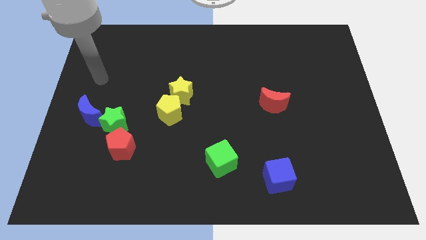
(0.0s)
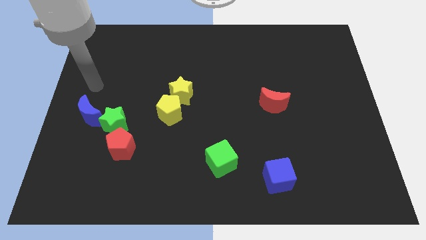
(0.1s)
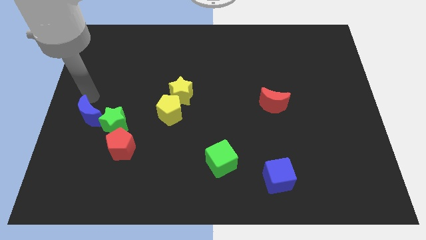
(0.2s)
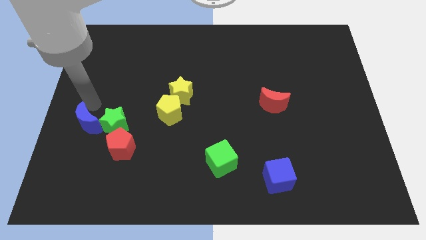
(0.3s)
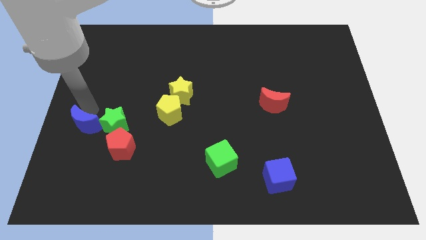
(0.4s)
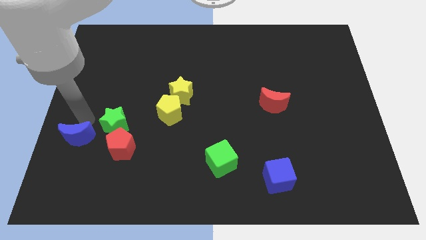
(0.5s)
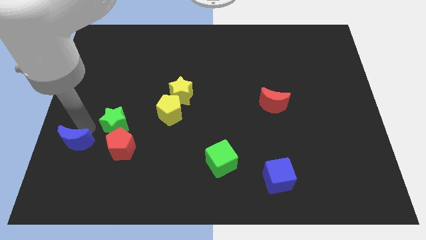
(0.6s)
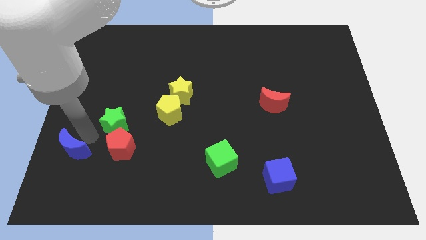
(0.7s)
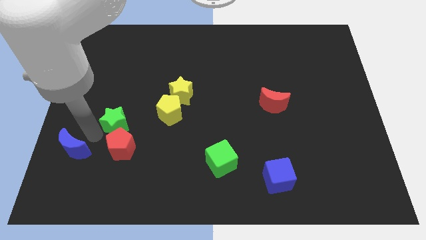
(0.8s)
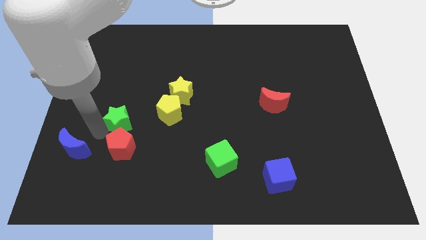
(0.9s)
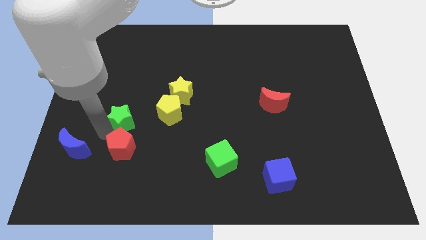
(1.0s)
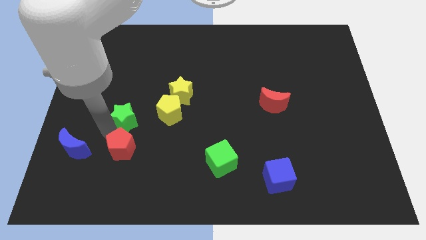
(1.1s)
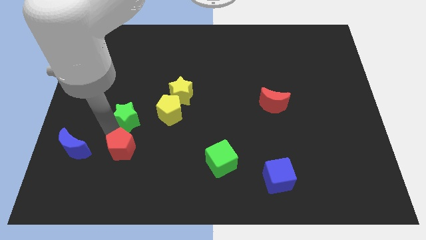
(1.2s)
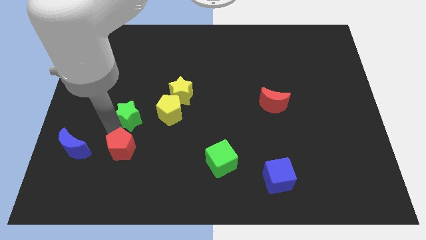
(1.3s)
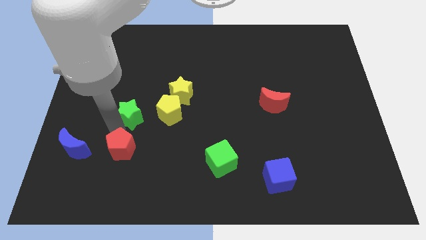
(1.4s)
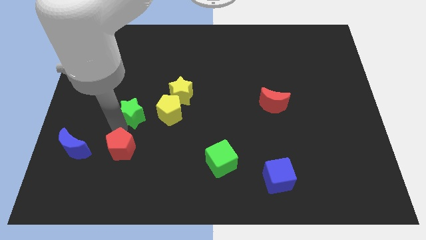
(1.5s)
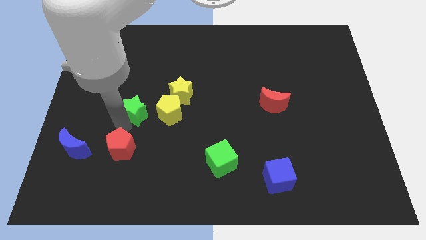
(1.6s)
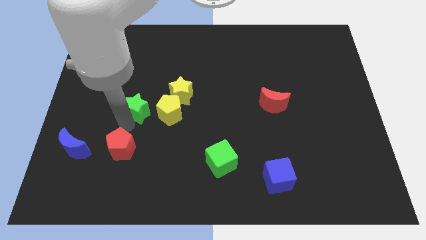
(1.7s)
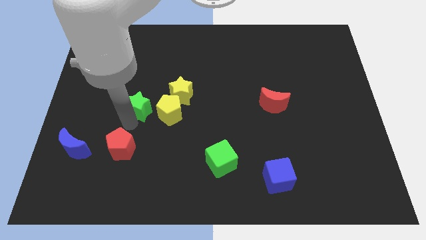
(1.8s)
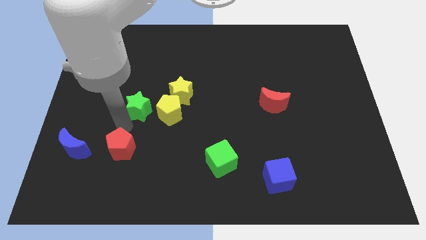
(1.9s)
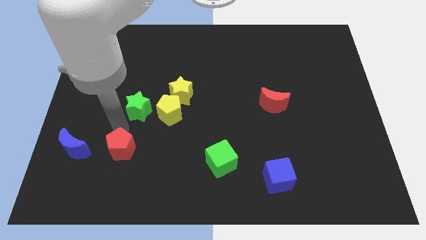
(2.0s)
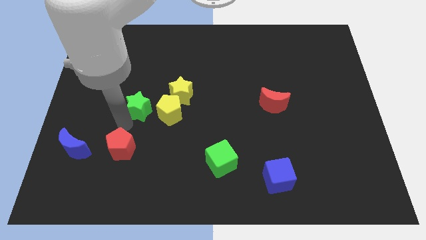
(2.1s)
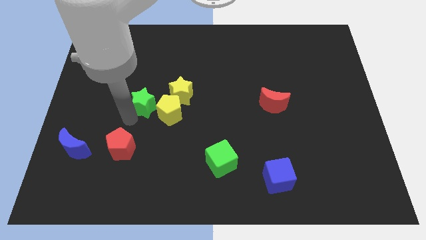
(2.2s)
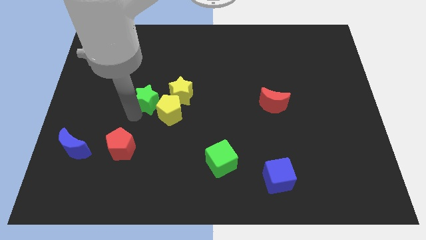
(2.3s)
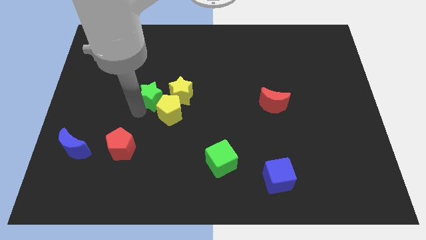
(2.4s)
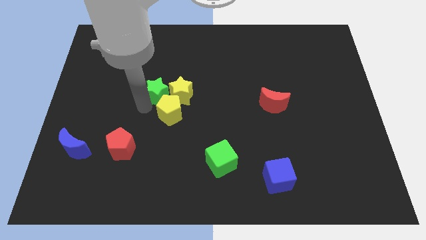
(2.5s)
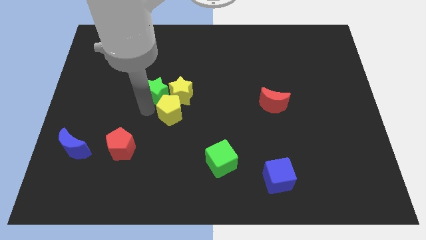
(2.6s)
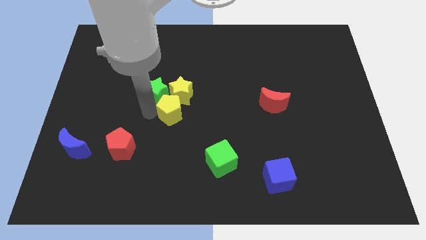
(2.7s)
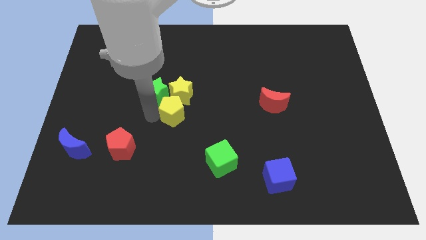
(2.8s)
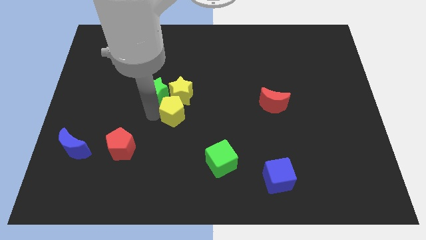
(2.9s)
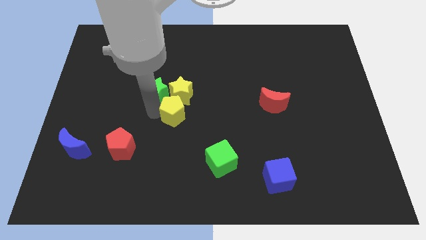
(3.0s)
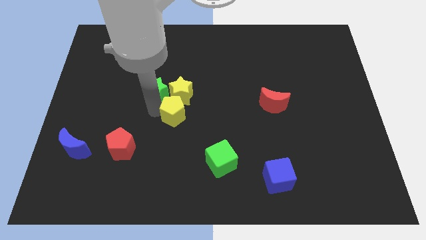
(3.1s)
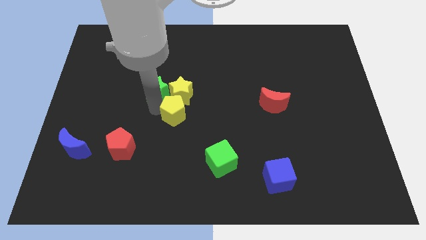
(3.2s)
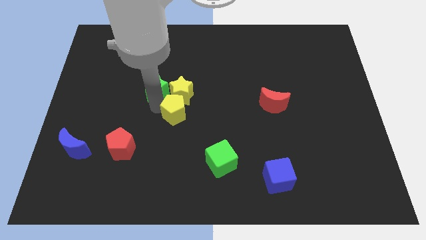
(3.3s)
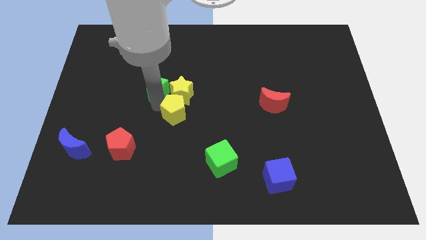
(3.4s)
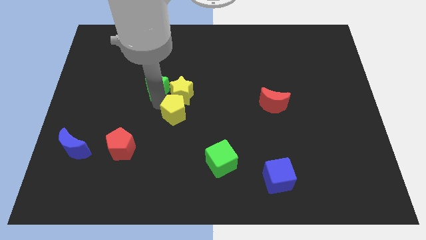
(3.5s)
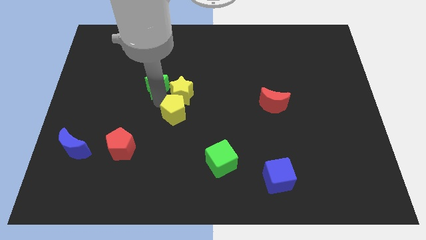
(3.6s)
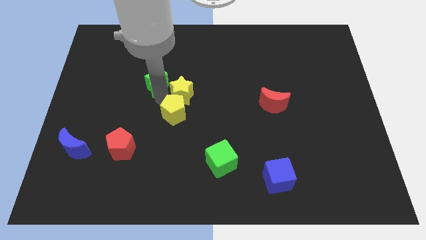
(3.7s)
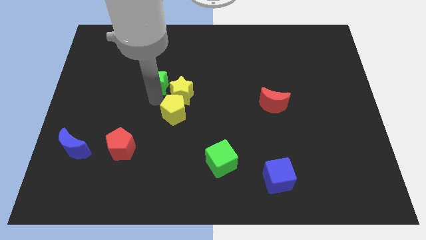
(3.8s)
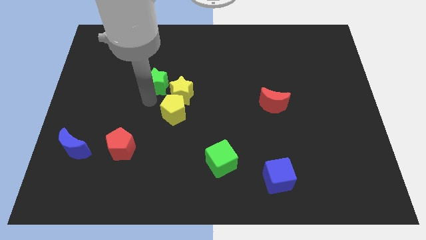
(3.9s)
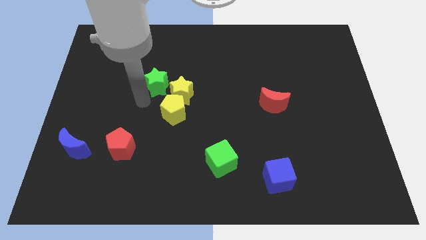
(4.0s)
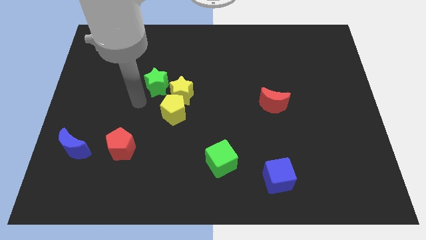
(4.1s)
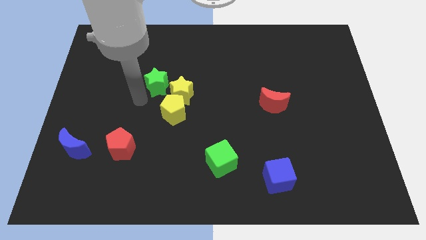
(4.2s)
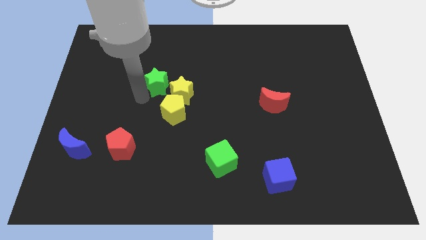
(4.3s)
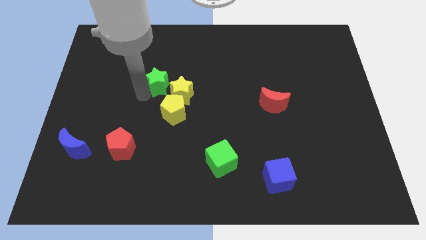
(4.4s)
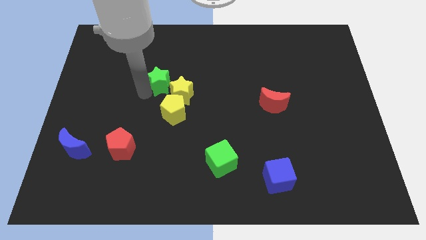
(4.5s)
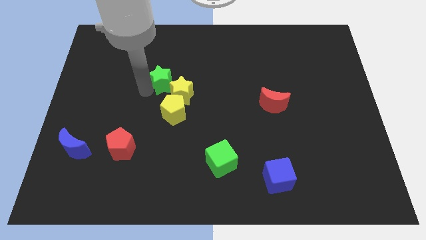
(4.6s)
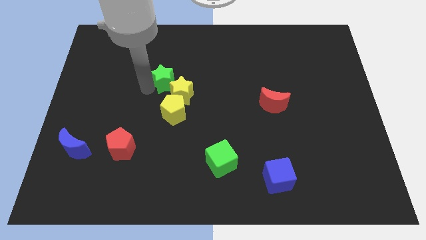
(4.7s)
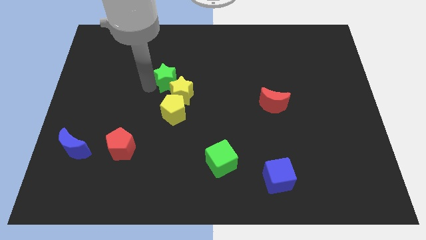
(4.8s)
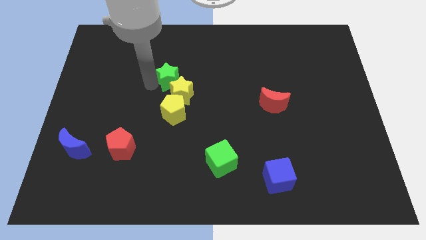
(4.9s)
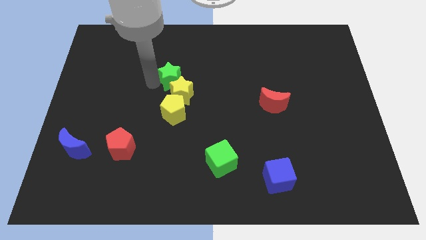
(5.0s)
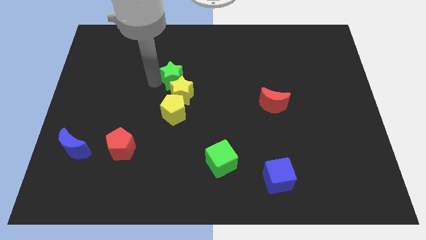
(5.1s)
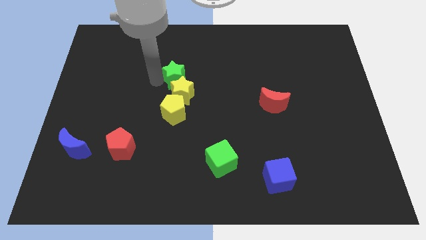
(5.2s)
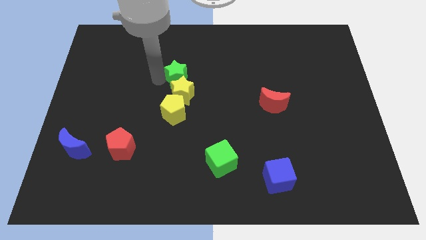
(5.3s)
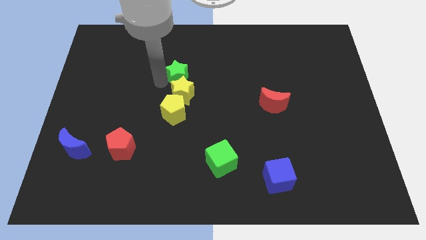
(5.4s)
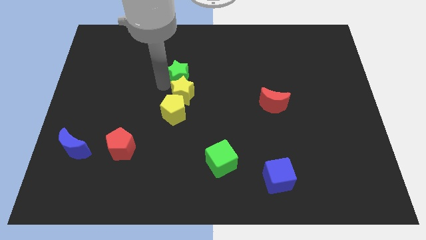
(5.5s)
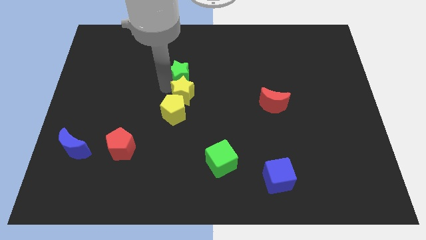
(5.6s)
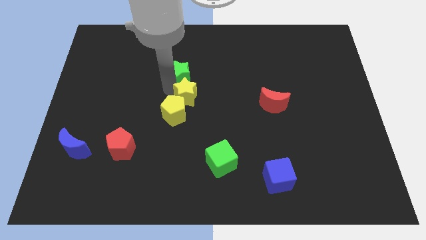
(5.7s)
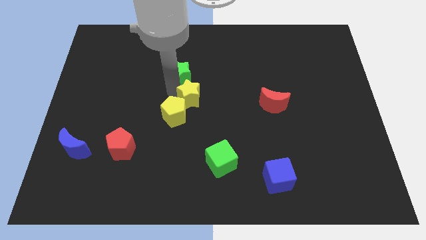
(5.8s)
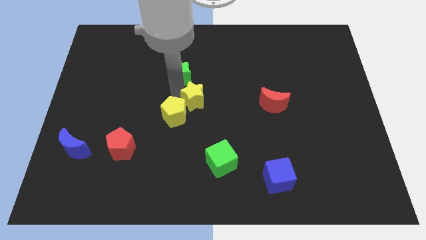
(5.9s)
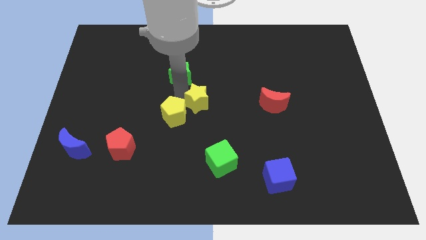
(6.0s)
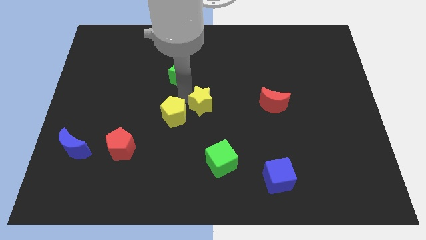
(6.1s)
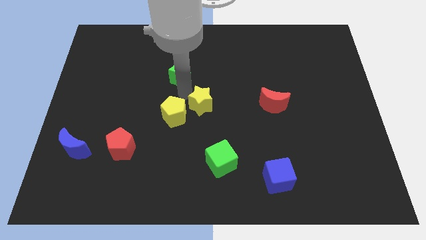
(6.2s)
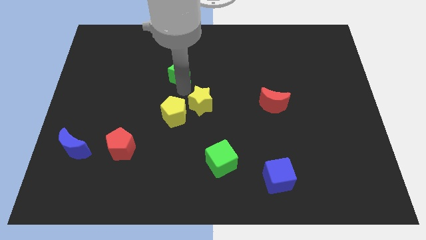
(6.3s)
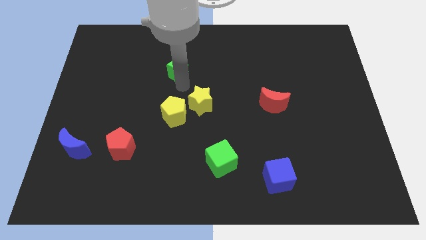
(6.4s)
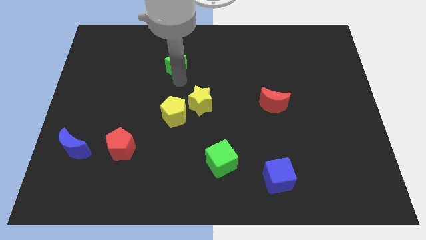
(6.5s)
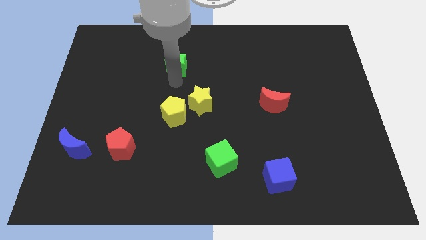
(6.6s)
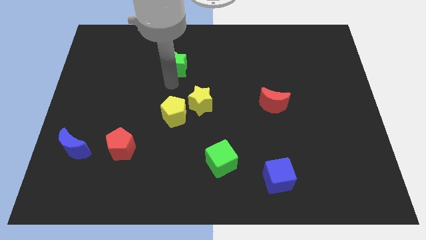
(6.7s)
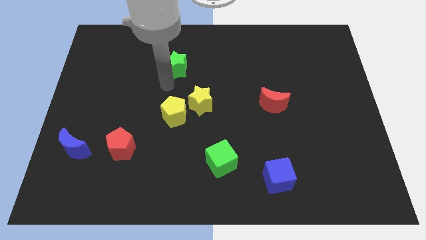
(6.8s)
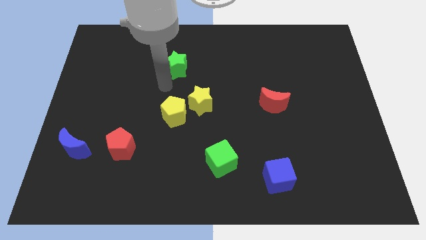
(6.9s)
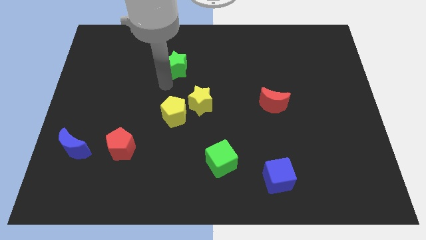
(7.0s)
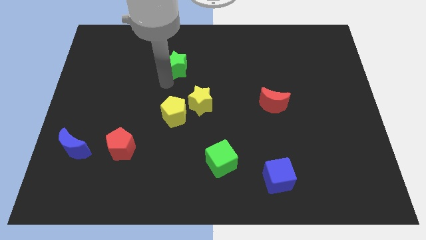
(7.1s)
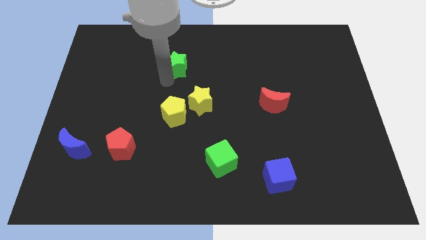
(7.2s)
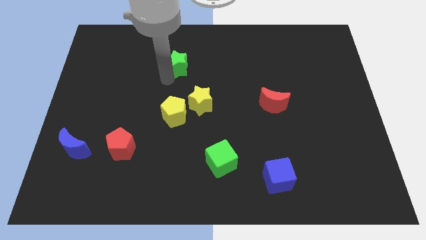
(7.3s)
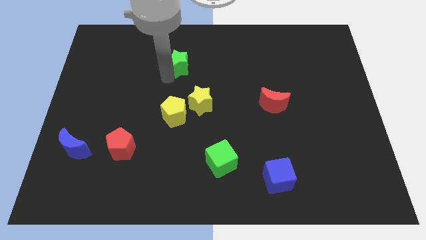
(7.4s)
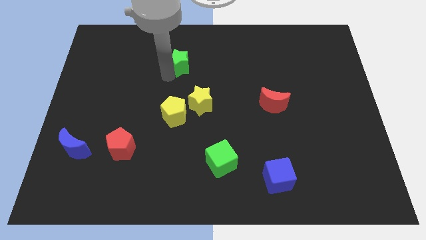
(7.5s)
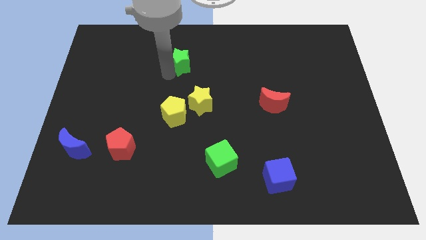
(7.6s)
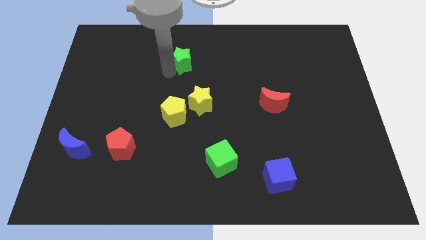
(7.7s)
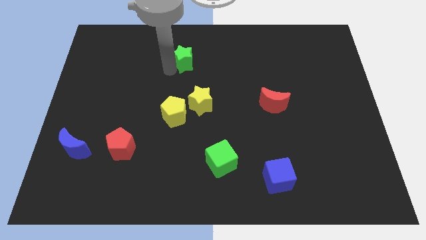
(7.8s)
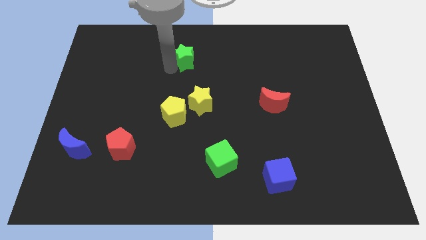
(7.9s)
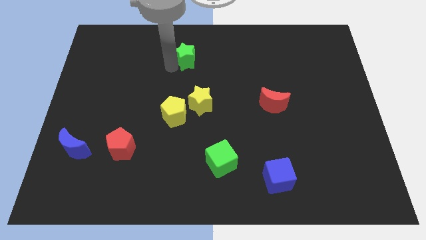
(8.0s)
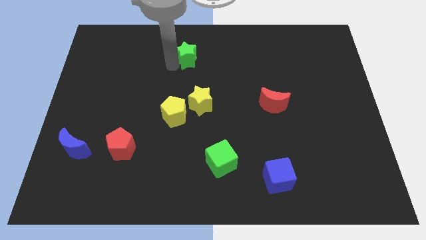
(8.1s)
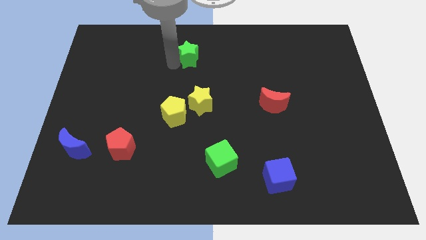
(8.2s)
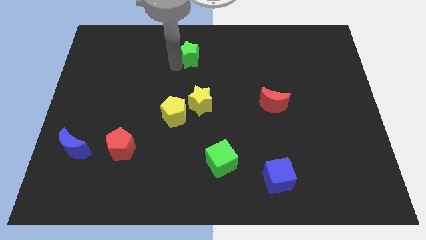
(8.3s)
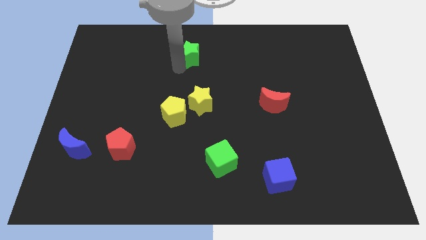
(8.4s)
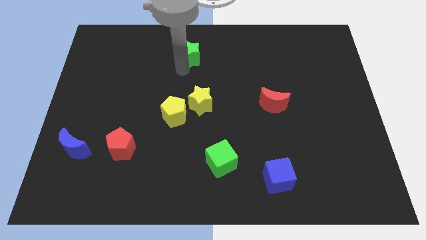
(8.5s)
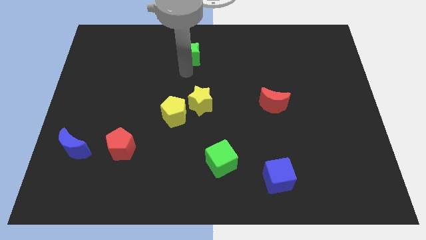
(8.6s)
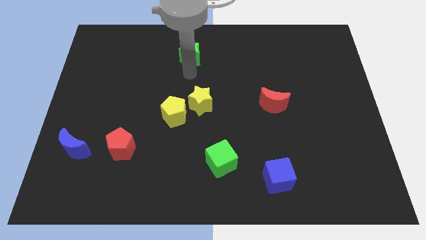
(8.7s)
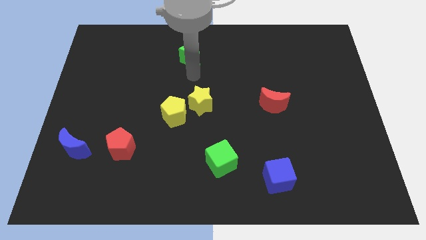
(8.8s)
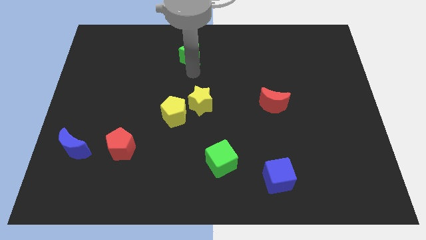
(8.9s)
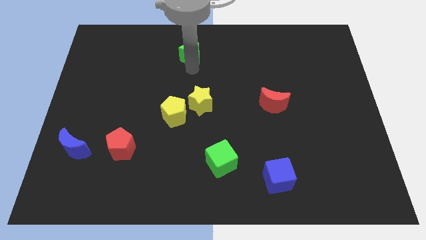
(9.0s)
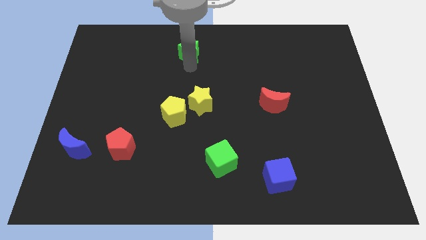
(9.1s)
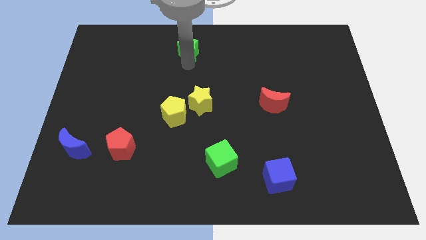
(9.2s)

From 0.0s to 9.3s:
slide the green star to the towards your base
